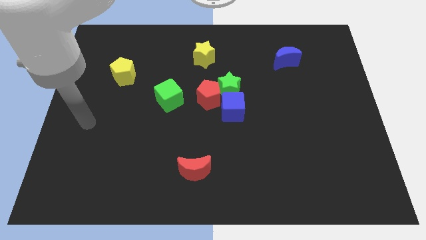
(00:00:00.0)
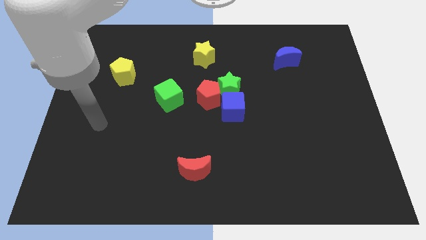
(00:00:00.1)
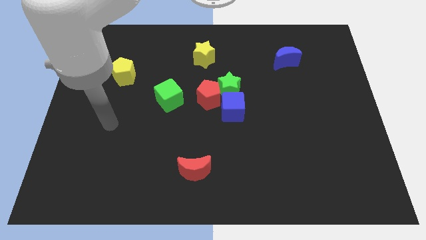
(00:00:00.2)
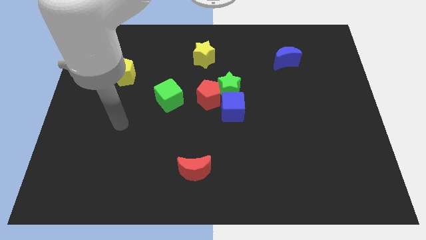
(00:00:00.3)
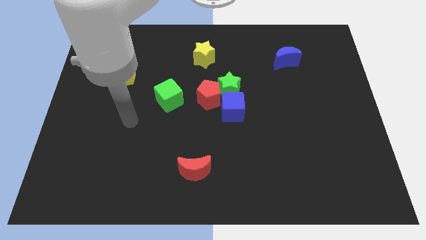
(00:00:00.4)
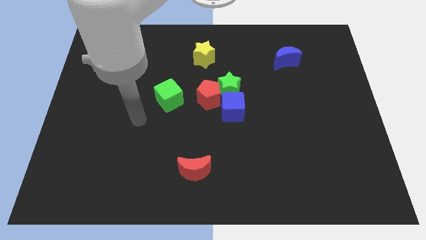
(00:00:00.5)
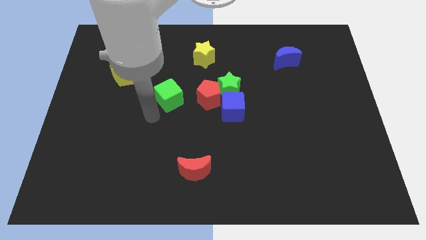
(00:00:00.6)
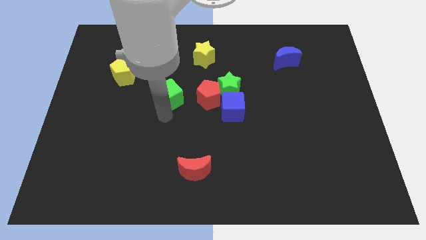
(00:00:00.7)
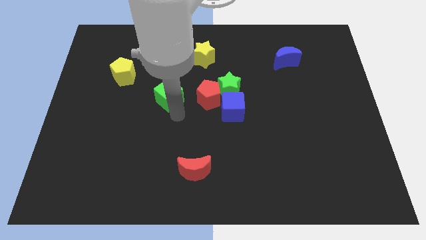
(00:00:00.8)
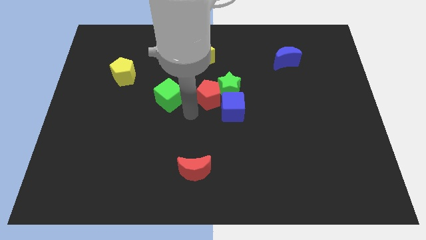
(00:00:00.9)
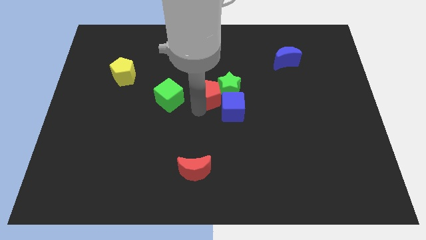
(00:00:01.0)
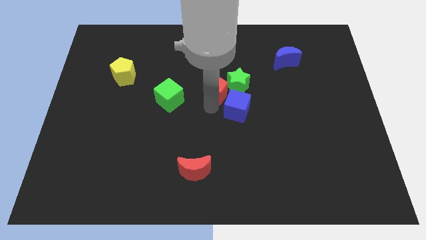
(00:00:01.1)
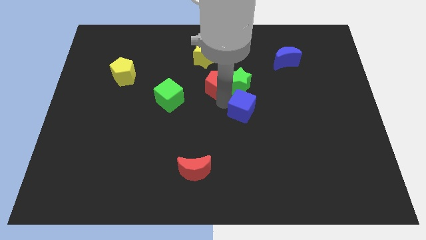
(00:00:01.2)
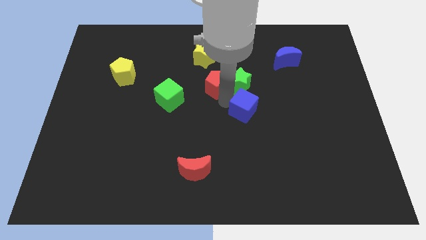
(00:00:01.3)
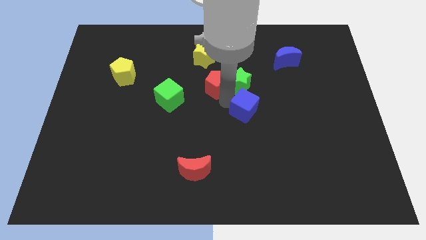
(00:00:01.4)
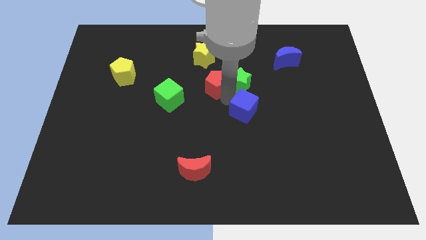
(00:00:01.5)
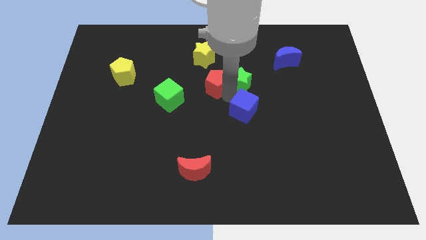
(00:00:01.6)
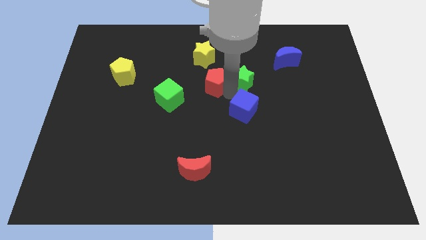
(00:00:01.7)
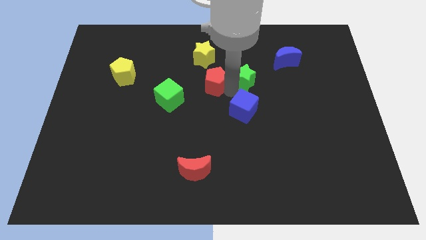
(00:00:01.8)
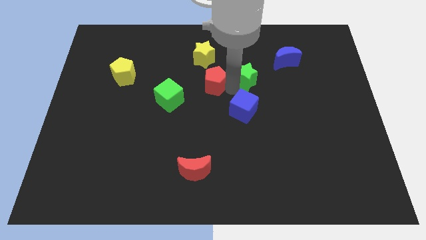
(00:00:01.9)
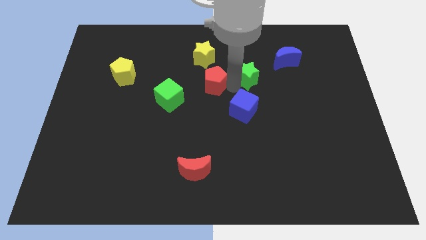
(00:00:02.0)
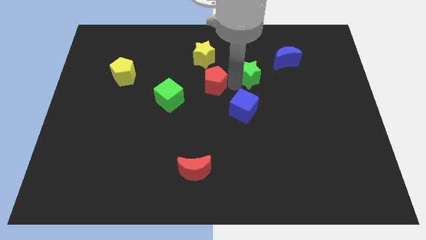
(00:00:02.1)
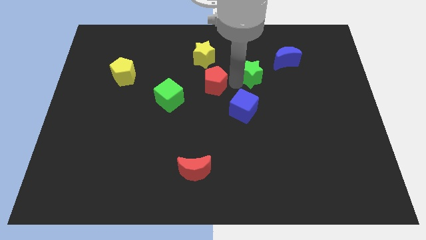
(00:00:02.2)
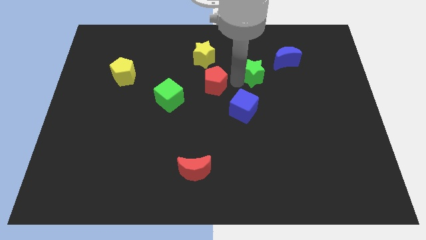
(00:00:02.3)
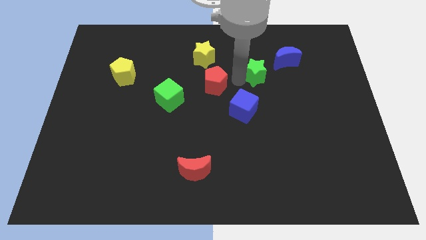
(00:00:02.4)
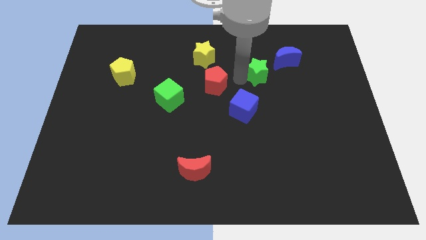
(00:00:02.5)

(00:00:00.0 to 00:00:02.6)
separate the green star from the red pentagon and blue cube

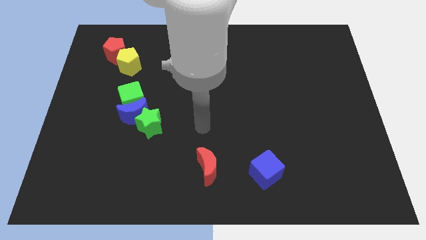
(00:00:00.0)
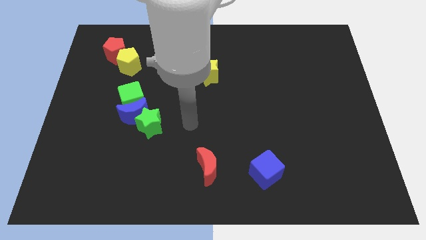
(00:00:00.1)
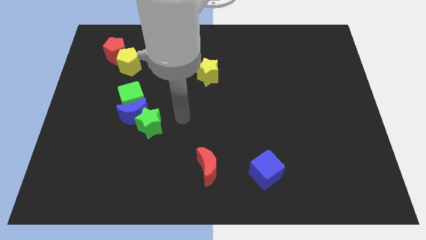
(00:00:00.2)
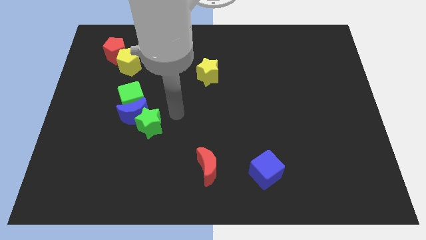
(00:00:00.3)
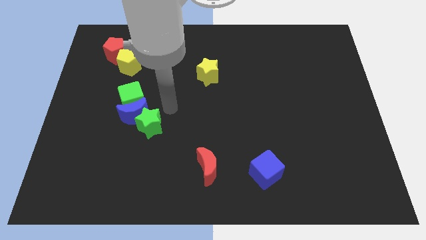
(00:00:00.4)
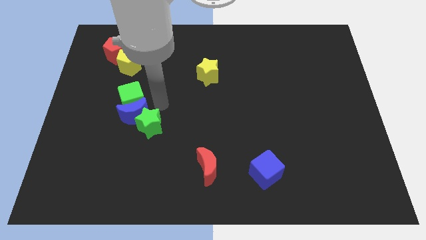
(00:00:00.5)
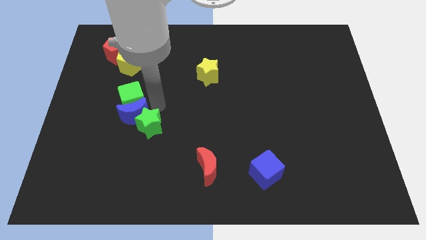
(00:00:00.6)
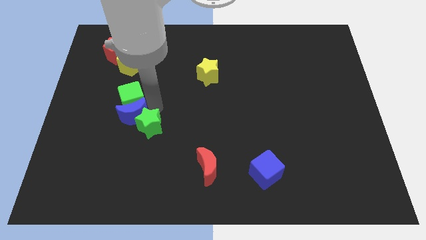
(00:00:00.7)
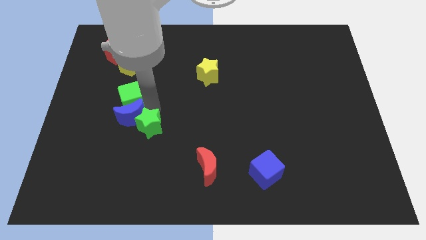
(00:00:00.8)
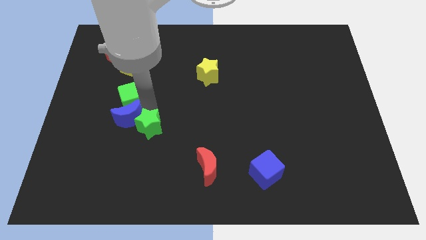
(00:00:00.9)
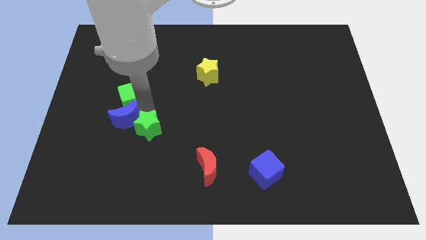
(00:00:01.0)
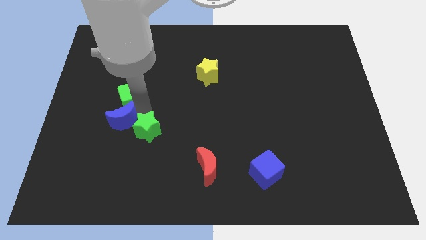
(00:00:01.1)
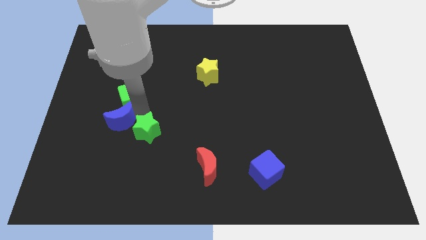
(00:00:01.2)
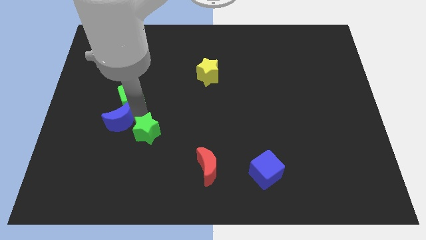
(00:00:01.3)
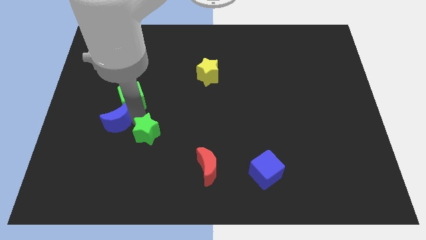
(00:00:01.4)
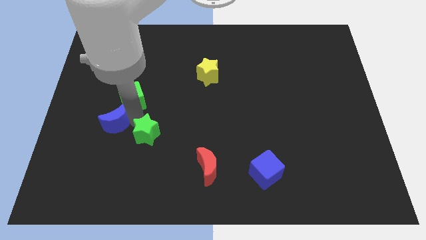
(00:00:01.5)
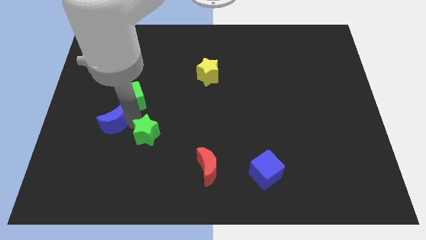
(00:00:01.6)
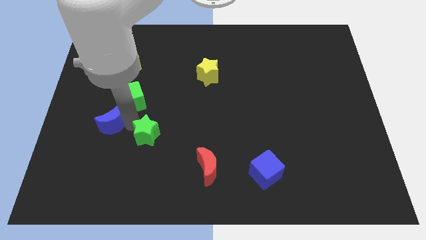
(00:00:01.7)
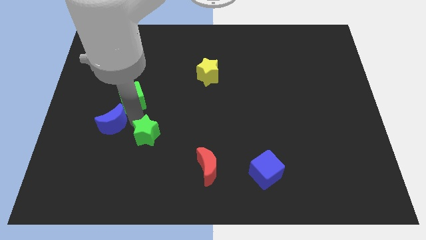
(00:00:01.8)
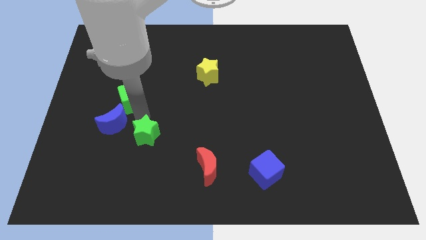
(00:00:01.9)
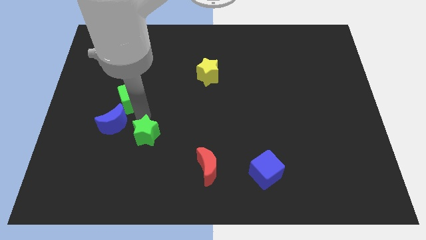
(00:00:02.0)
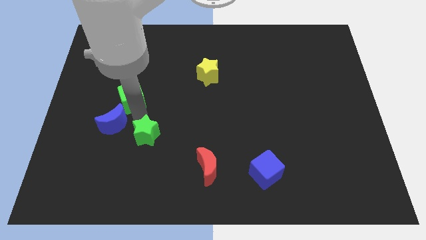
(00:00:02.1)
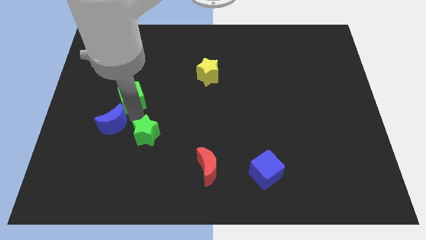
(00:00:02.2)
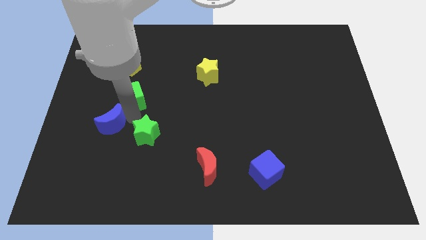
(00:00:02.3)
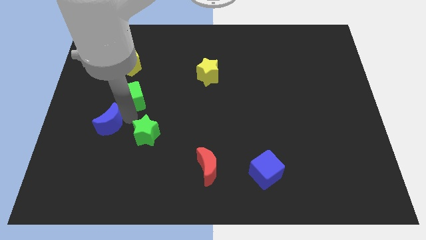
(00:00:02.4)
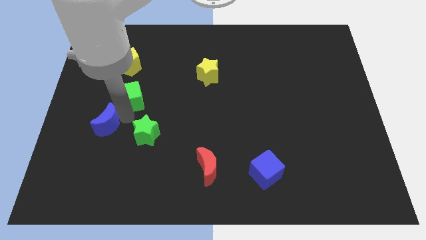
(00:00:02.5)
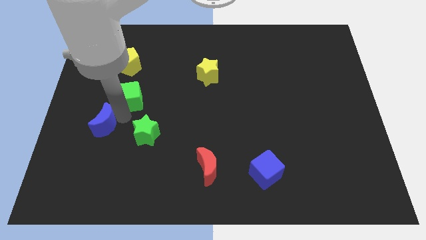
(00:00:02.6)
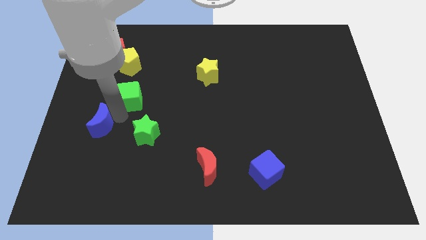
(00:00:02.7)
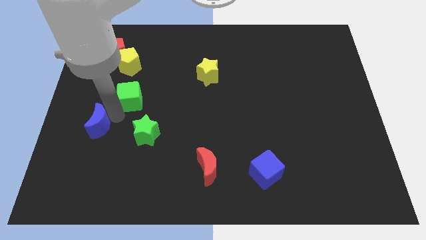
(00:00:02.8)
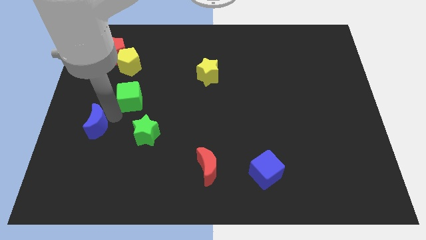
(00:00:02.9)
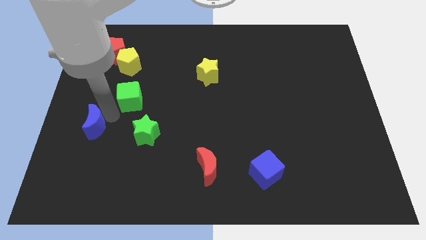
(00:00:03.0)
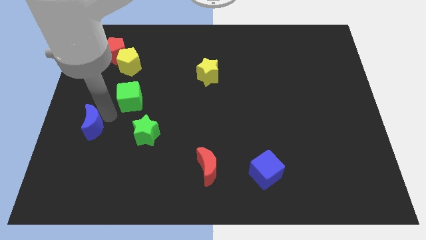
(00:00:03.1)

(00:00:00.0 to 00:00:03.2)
separate the blue moon from the green cube and green star

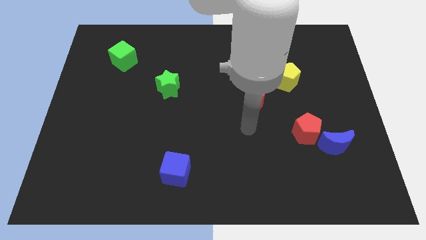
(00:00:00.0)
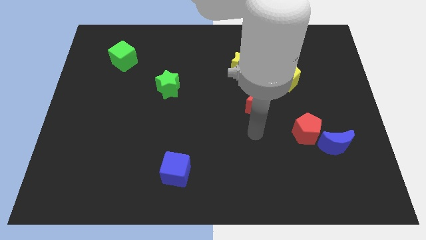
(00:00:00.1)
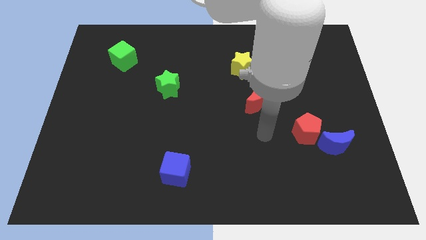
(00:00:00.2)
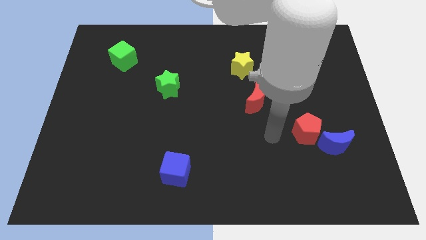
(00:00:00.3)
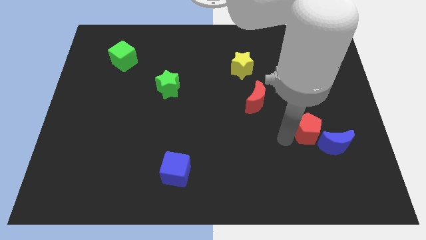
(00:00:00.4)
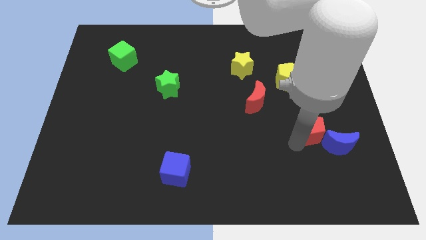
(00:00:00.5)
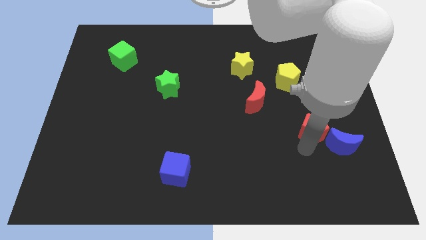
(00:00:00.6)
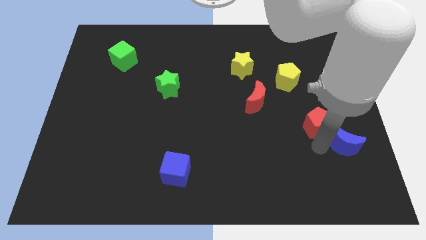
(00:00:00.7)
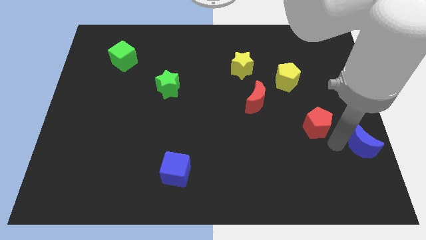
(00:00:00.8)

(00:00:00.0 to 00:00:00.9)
pull the red pentagon apart from the blue moon

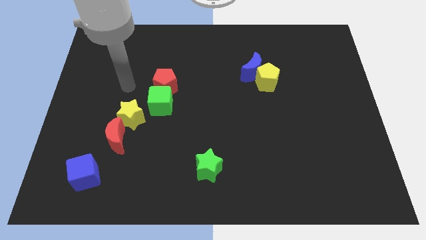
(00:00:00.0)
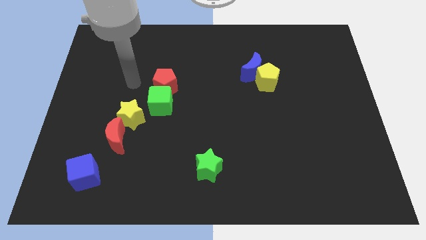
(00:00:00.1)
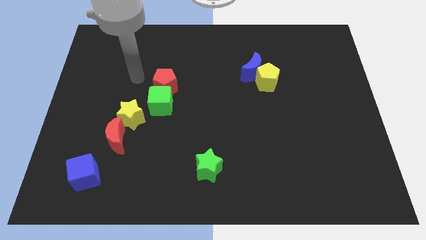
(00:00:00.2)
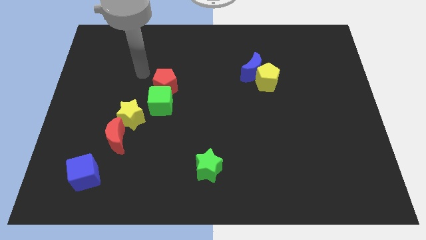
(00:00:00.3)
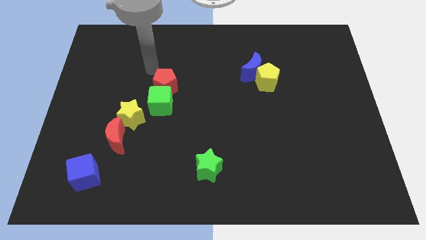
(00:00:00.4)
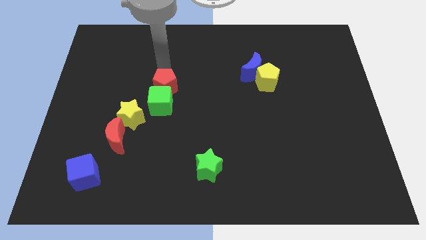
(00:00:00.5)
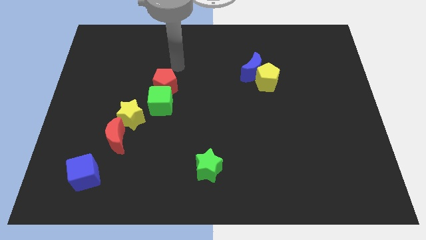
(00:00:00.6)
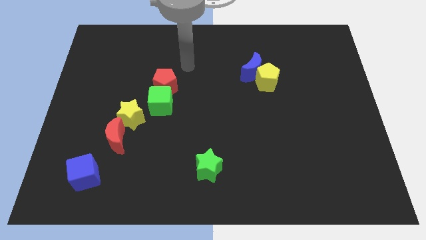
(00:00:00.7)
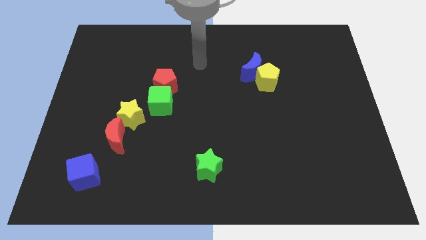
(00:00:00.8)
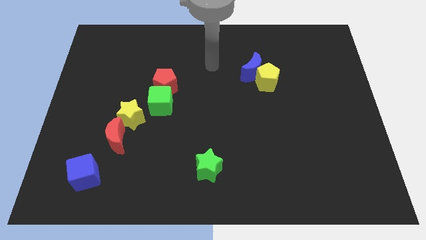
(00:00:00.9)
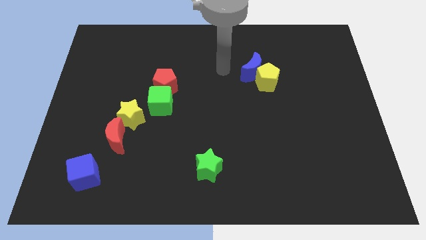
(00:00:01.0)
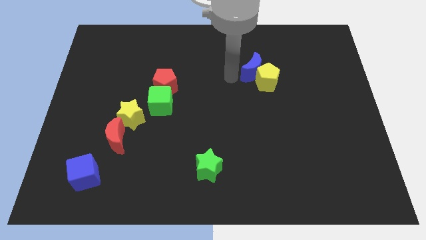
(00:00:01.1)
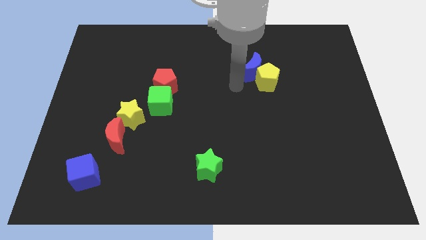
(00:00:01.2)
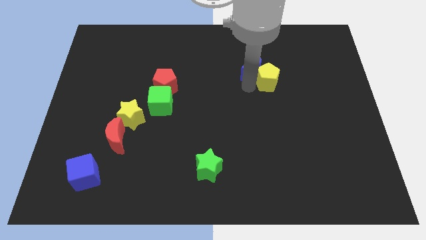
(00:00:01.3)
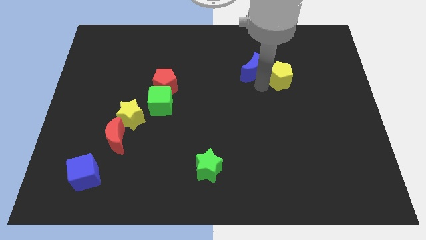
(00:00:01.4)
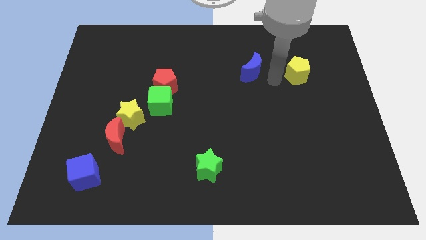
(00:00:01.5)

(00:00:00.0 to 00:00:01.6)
move the blue moon away from the yellow pentagon

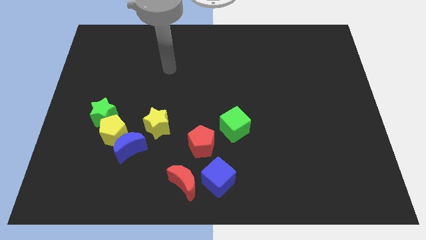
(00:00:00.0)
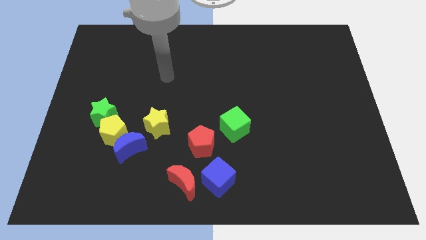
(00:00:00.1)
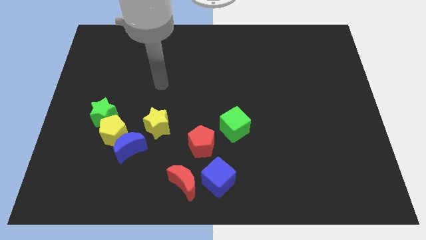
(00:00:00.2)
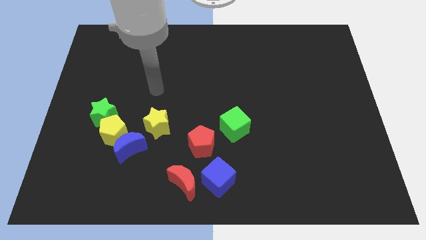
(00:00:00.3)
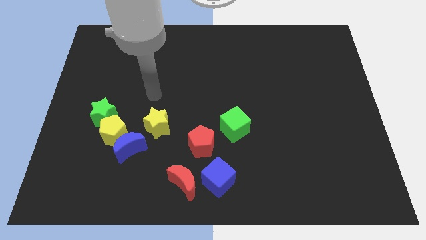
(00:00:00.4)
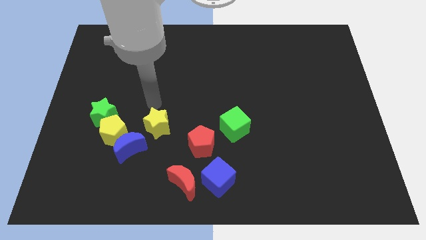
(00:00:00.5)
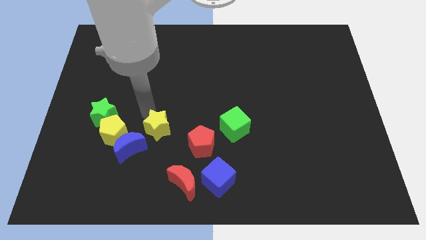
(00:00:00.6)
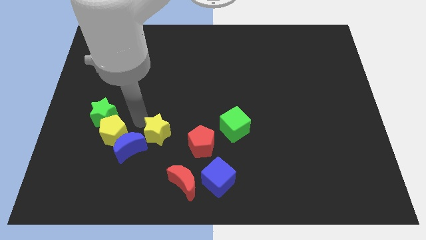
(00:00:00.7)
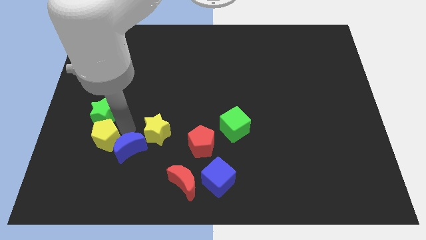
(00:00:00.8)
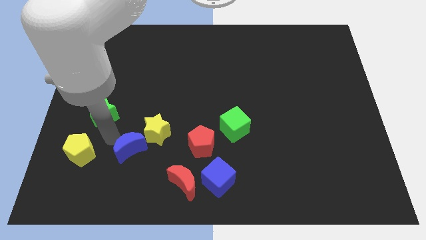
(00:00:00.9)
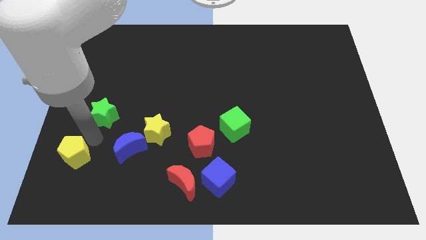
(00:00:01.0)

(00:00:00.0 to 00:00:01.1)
pull the green star apart from the yellow pentagon
